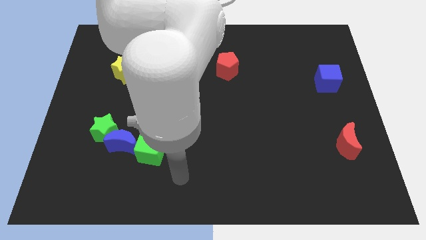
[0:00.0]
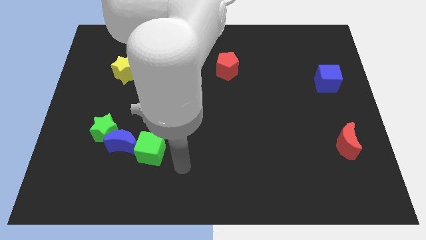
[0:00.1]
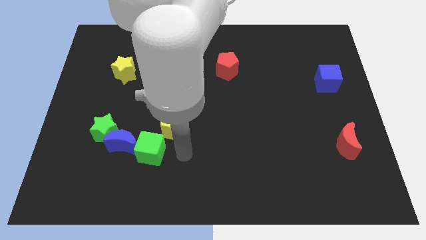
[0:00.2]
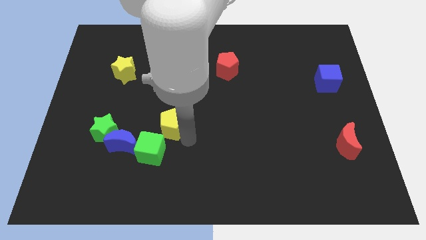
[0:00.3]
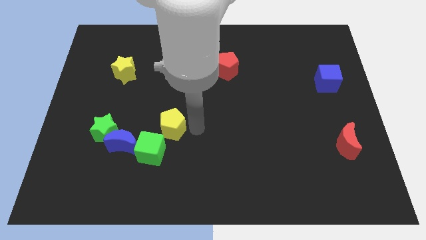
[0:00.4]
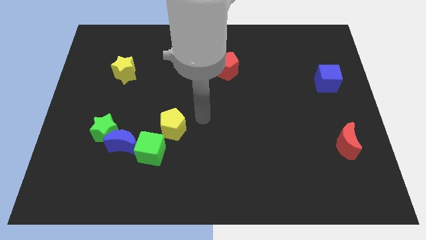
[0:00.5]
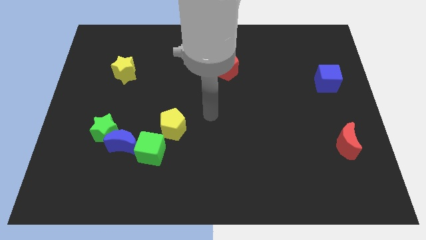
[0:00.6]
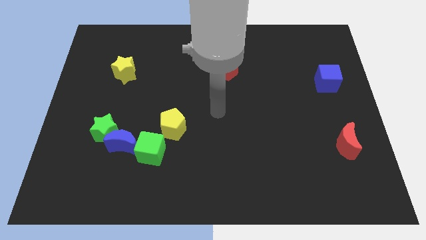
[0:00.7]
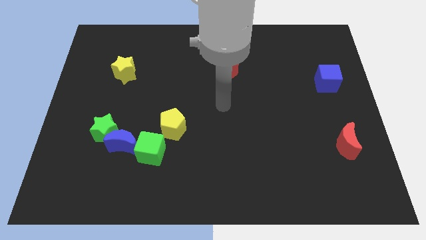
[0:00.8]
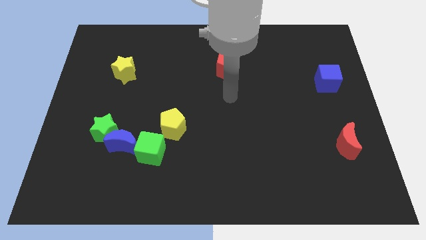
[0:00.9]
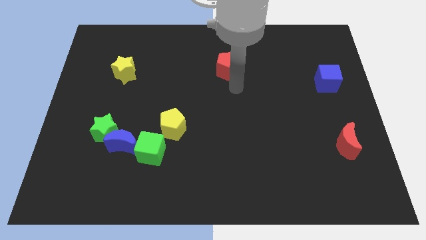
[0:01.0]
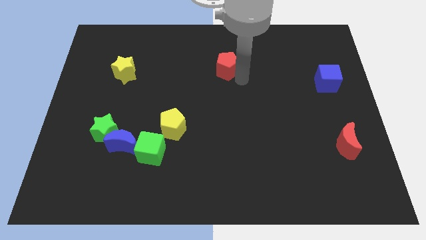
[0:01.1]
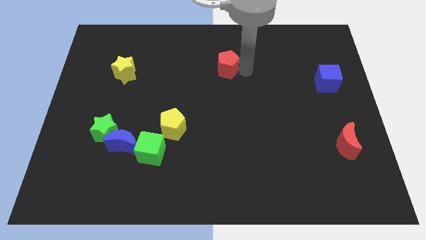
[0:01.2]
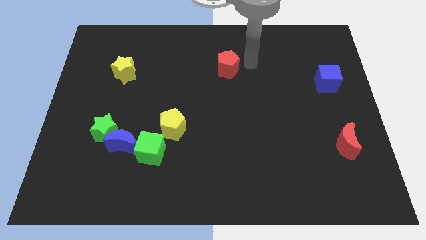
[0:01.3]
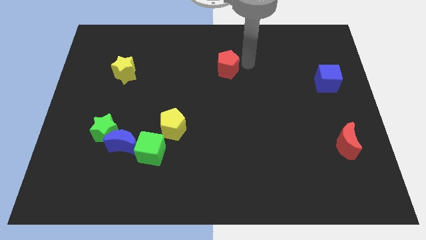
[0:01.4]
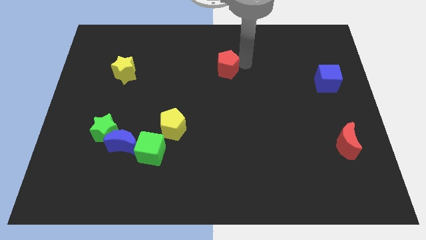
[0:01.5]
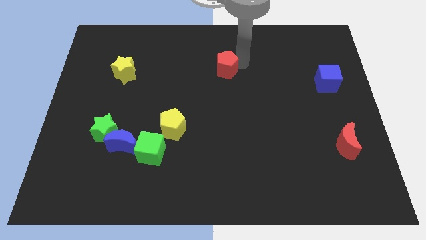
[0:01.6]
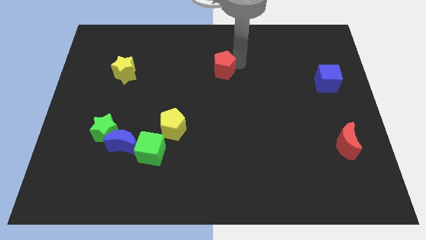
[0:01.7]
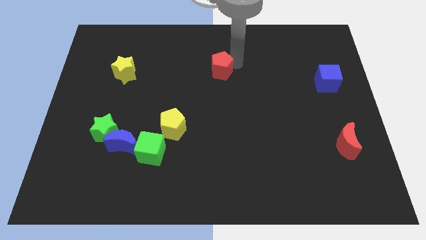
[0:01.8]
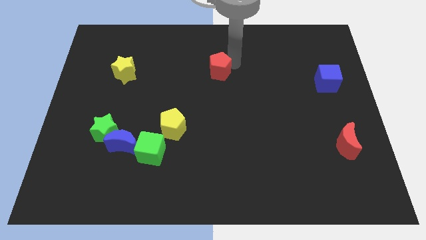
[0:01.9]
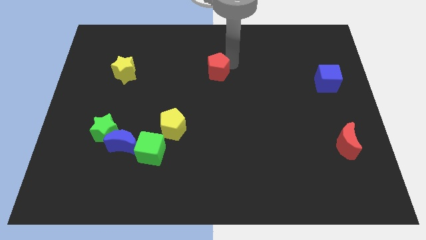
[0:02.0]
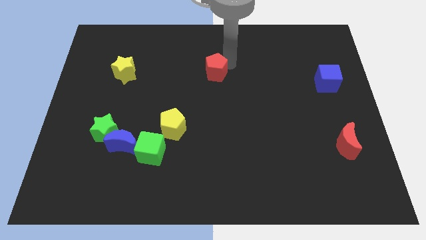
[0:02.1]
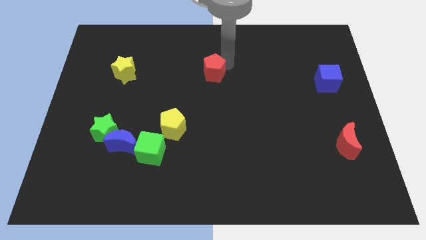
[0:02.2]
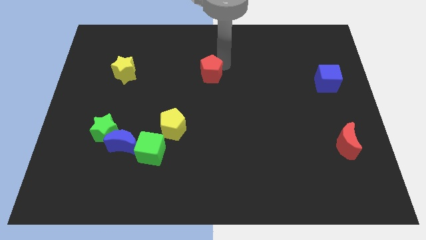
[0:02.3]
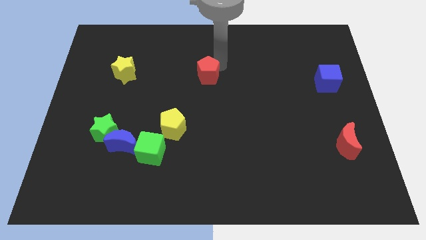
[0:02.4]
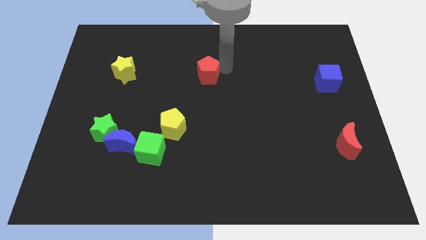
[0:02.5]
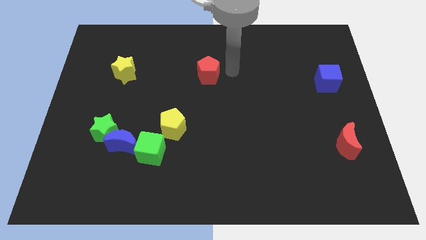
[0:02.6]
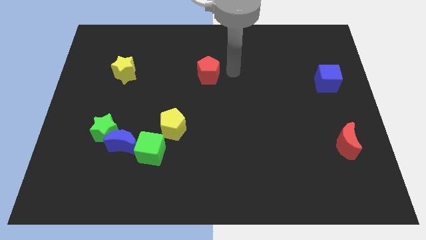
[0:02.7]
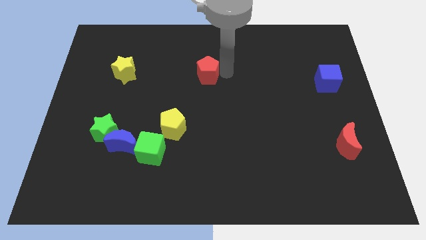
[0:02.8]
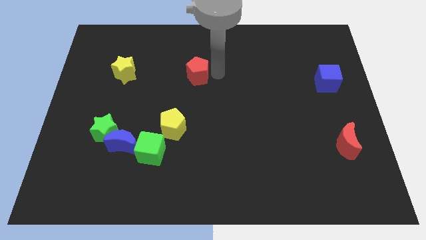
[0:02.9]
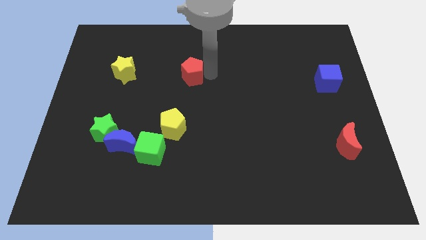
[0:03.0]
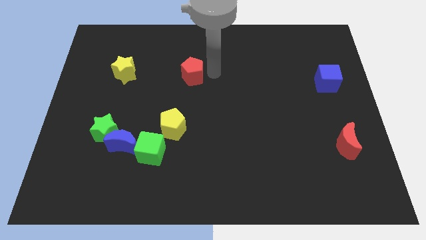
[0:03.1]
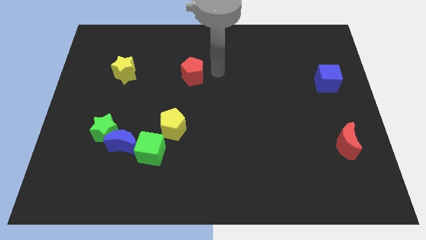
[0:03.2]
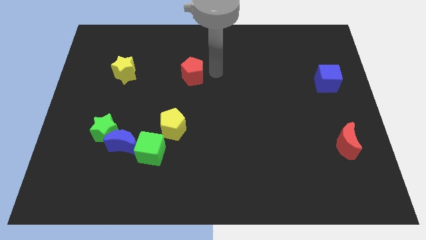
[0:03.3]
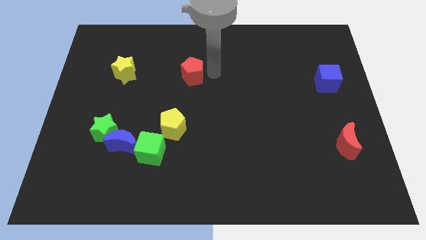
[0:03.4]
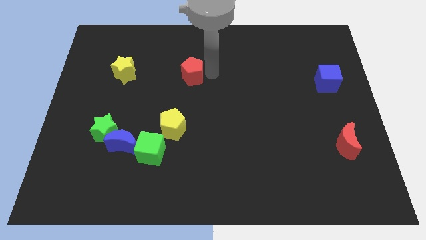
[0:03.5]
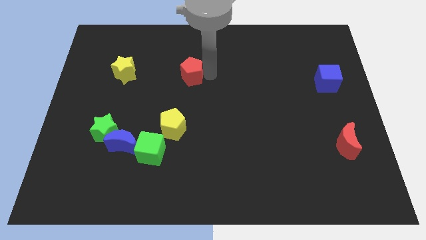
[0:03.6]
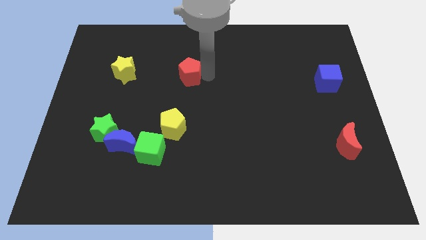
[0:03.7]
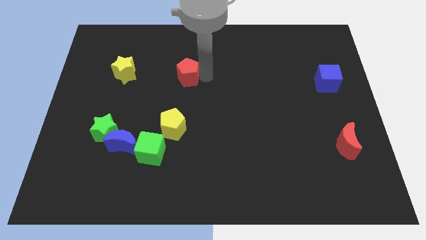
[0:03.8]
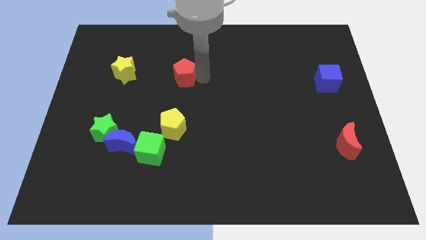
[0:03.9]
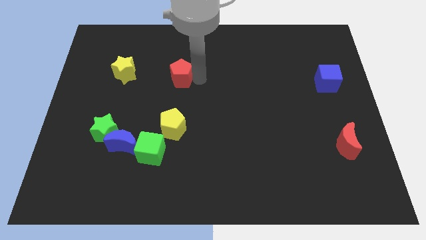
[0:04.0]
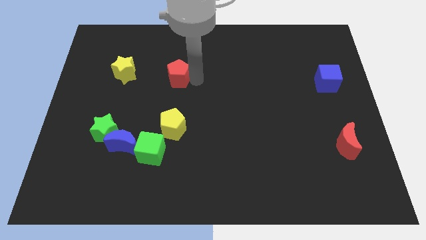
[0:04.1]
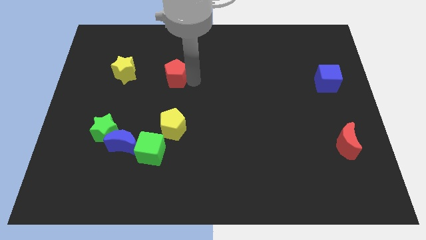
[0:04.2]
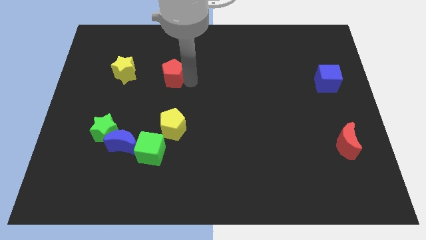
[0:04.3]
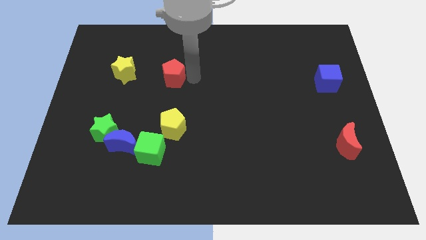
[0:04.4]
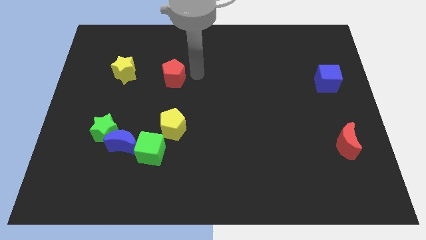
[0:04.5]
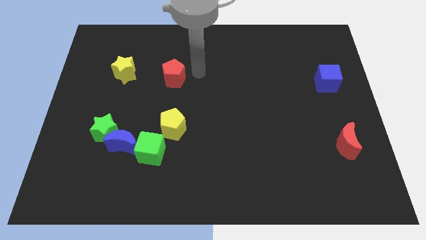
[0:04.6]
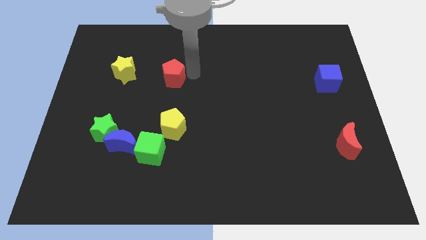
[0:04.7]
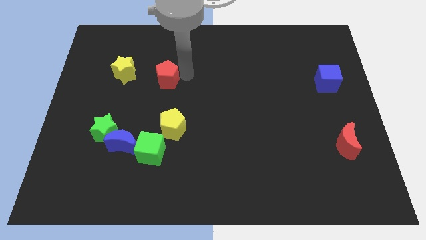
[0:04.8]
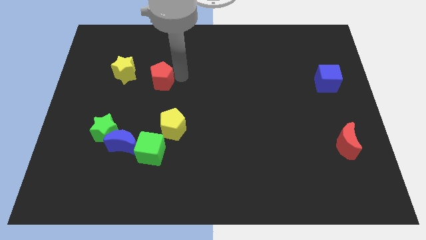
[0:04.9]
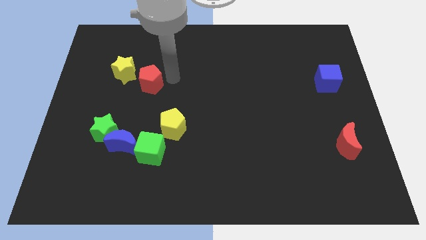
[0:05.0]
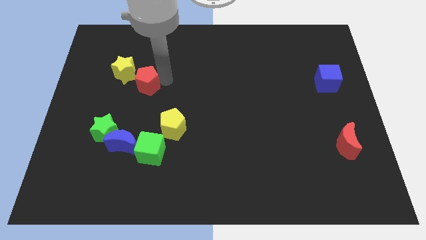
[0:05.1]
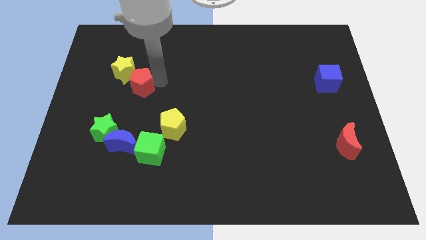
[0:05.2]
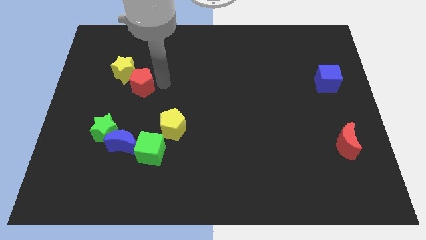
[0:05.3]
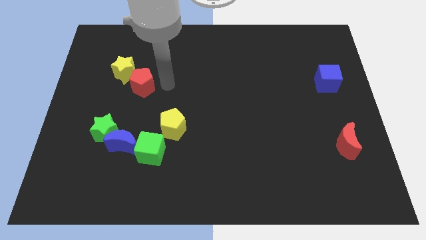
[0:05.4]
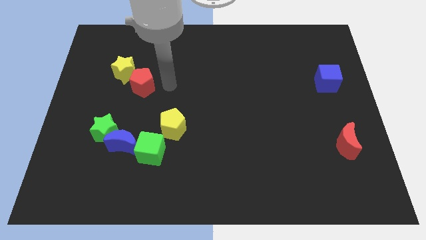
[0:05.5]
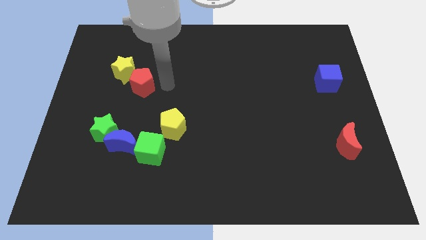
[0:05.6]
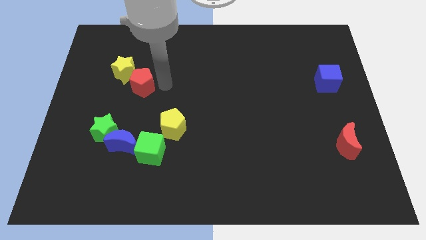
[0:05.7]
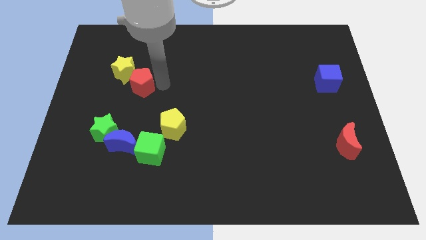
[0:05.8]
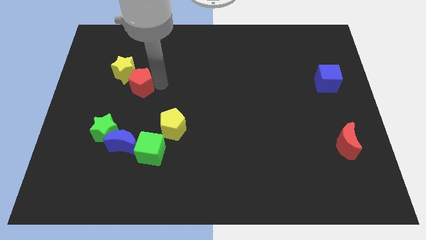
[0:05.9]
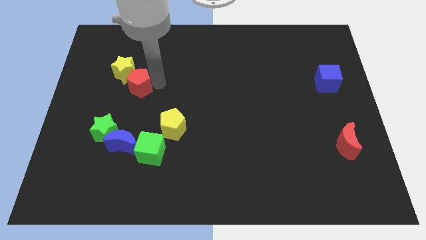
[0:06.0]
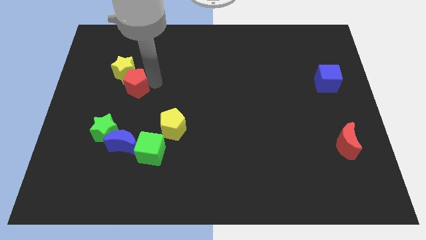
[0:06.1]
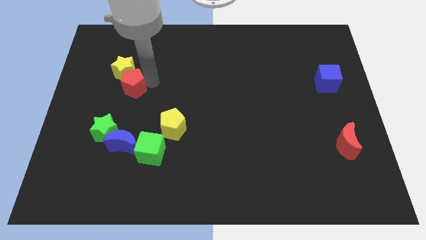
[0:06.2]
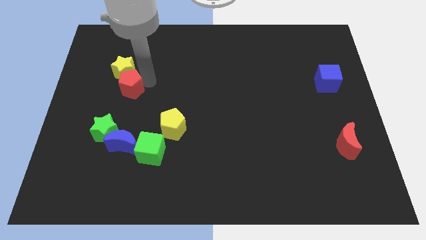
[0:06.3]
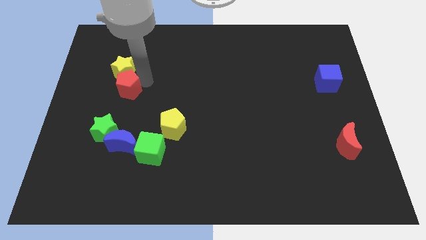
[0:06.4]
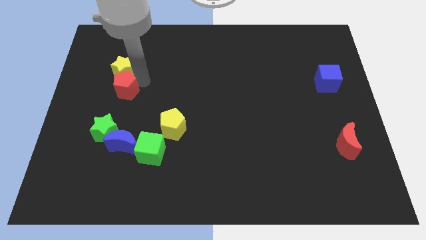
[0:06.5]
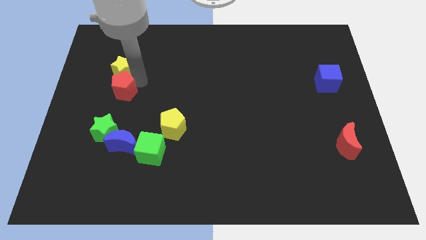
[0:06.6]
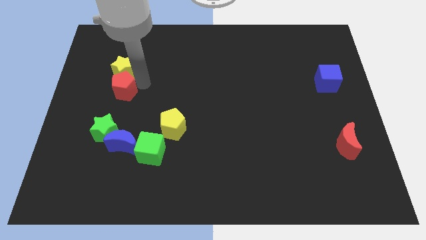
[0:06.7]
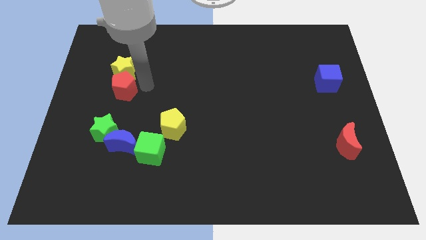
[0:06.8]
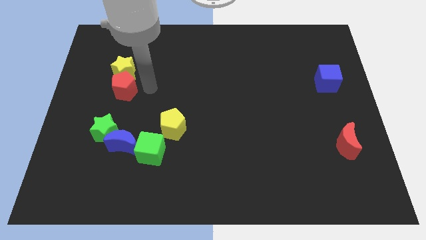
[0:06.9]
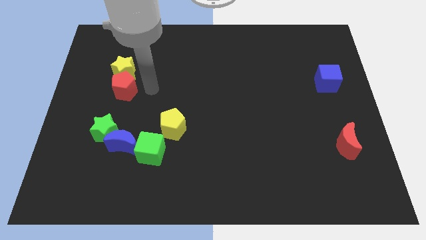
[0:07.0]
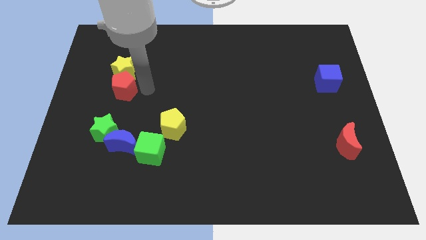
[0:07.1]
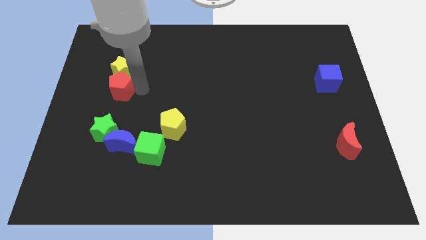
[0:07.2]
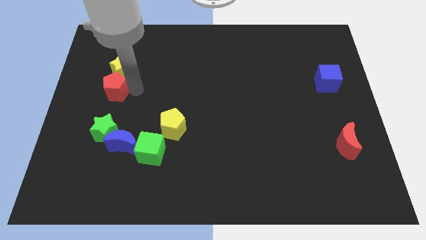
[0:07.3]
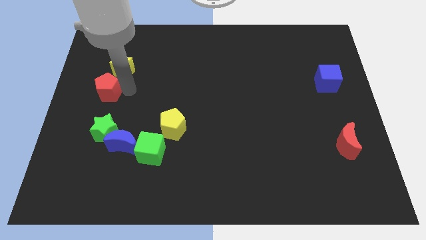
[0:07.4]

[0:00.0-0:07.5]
put the red pentagon to the left side of the board
